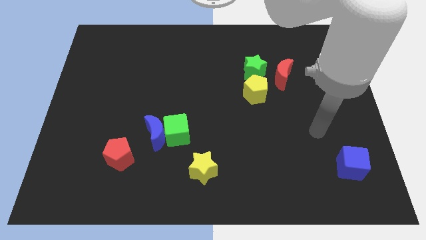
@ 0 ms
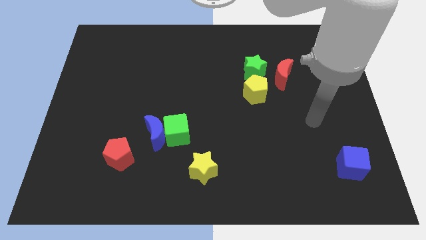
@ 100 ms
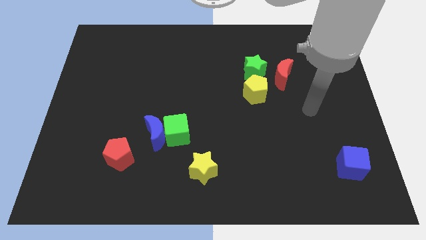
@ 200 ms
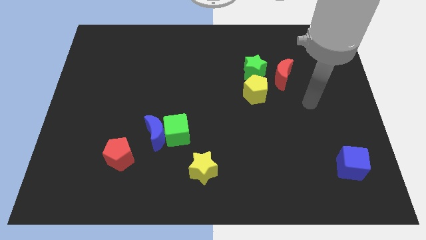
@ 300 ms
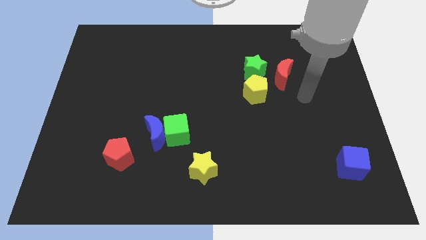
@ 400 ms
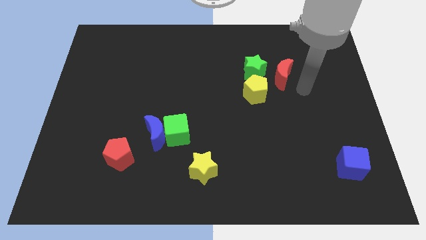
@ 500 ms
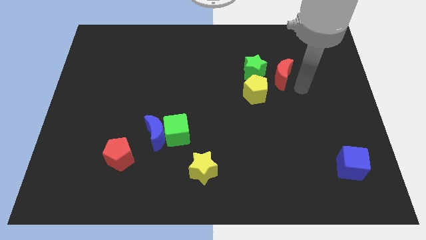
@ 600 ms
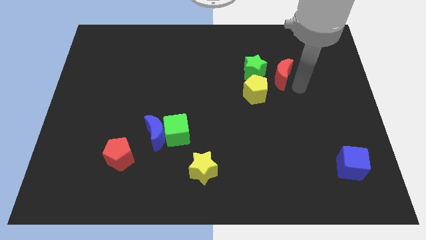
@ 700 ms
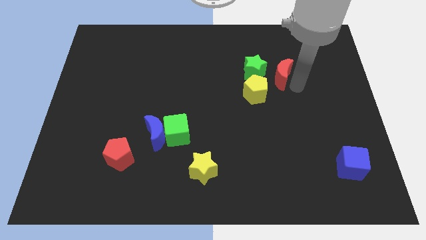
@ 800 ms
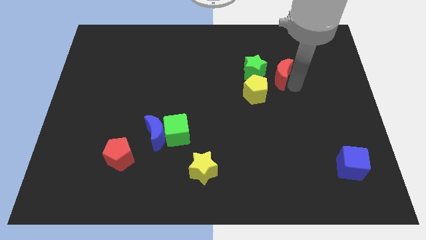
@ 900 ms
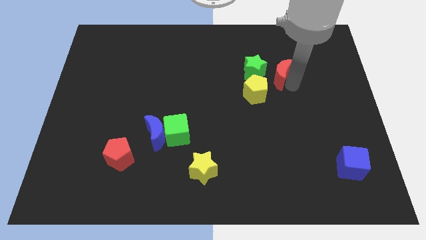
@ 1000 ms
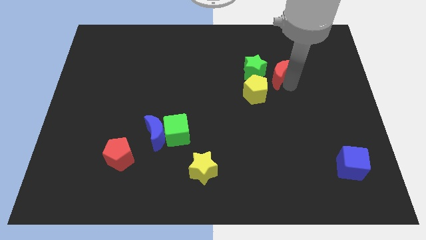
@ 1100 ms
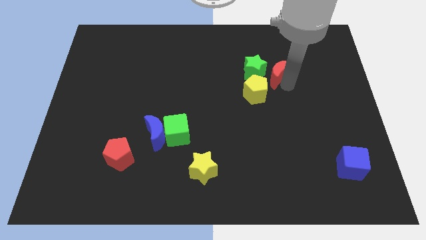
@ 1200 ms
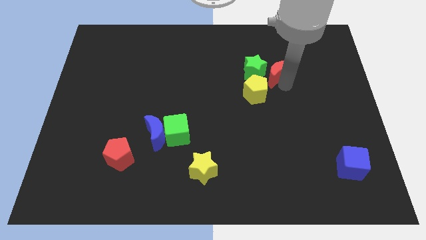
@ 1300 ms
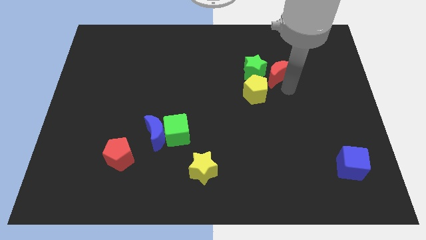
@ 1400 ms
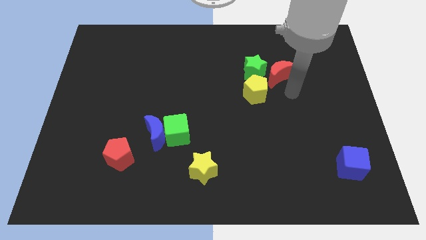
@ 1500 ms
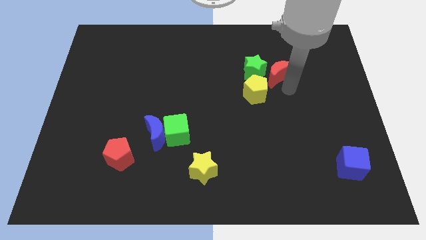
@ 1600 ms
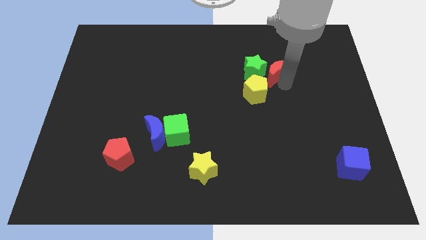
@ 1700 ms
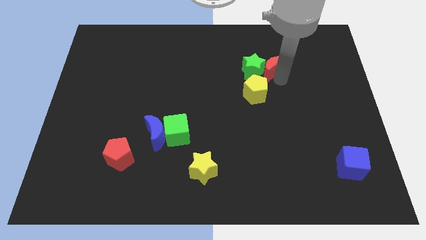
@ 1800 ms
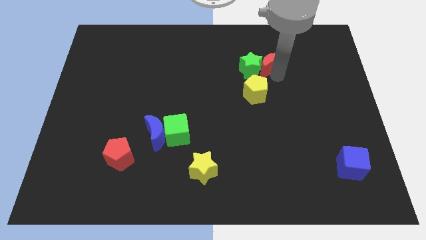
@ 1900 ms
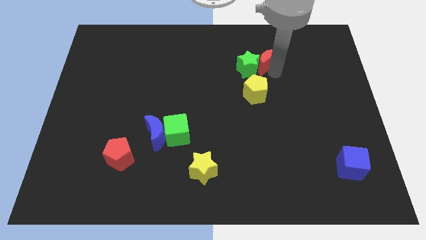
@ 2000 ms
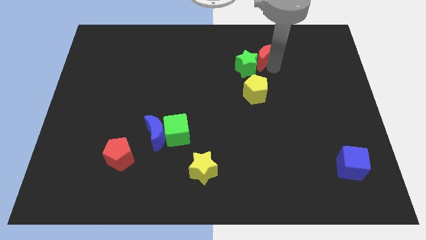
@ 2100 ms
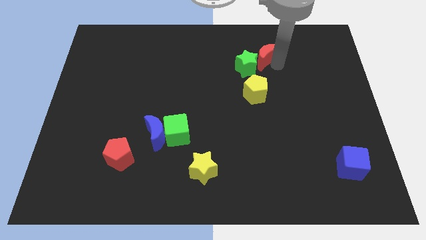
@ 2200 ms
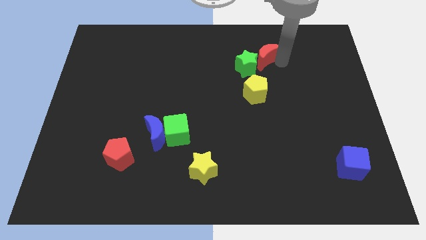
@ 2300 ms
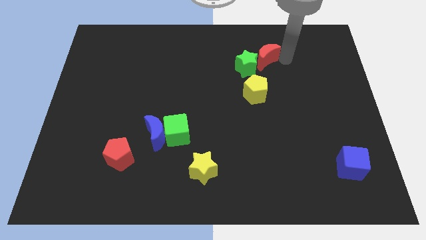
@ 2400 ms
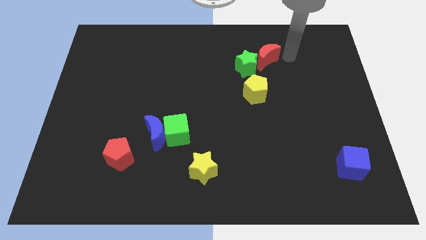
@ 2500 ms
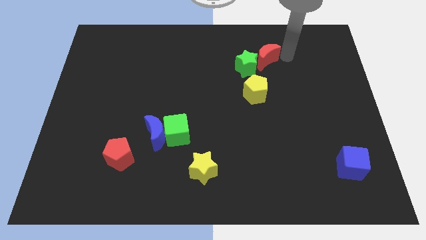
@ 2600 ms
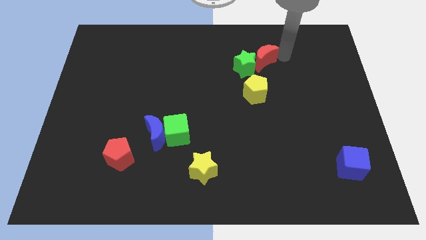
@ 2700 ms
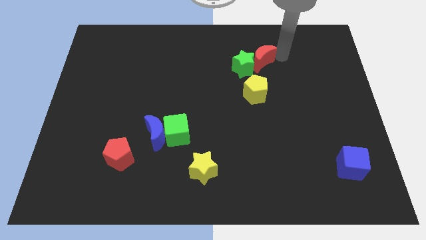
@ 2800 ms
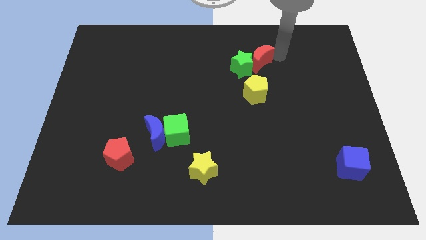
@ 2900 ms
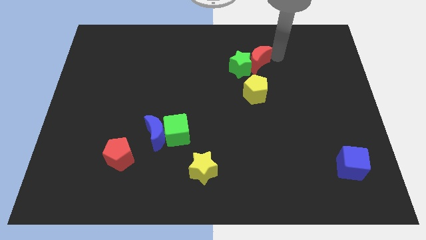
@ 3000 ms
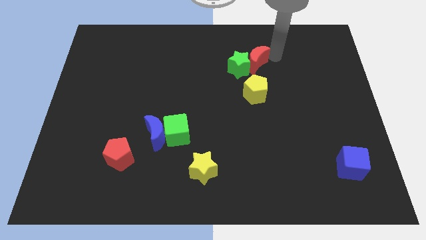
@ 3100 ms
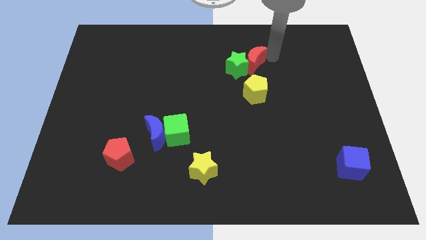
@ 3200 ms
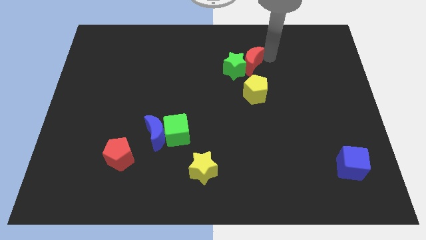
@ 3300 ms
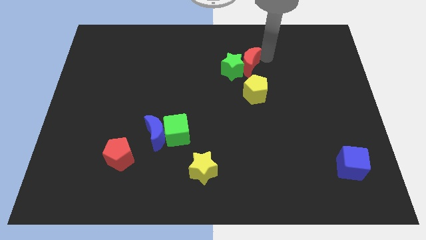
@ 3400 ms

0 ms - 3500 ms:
move the red moon a bit left

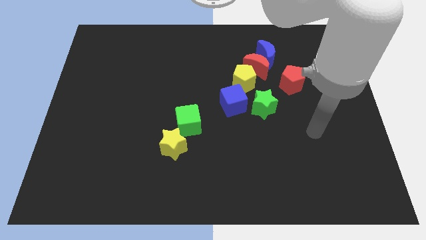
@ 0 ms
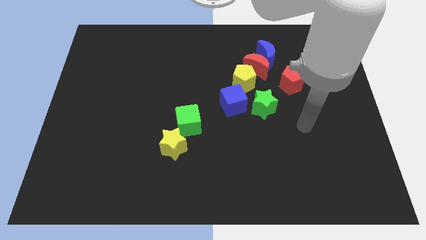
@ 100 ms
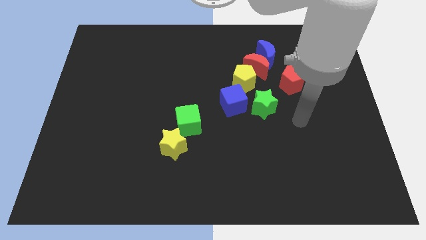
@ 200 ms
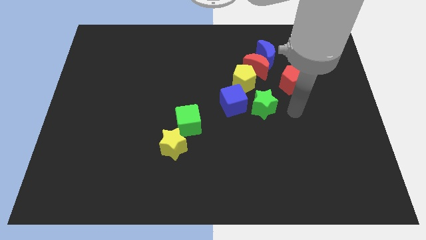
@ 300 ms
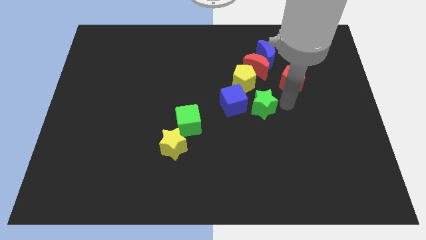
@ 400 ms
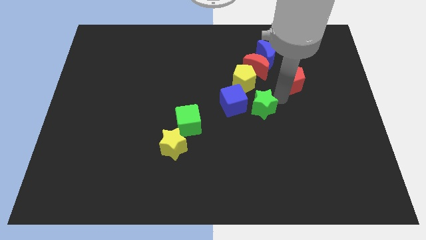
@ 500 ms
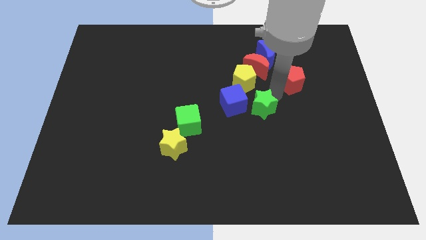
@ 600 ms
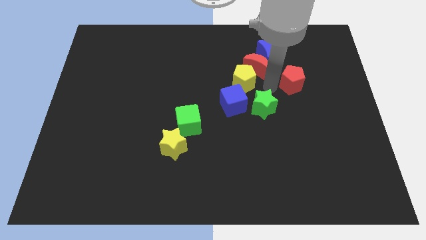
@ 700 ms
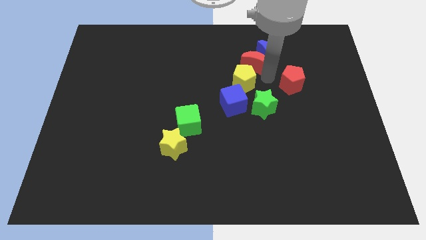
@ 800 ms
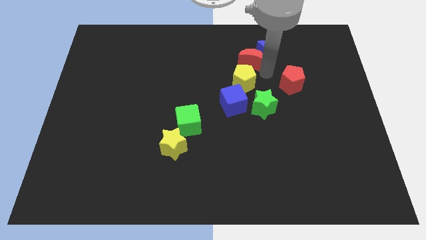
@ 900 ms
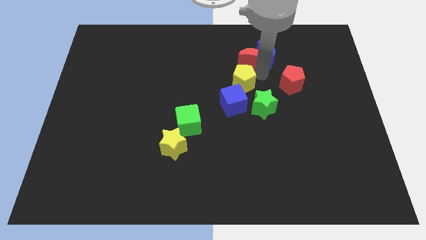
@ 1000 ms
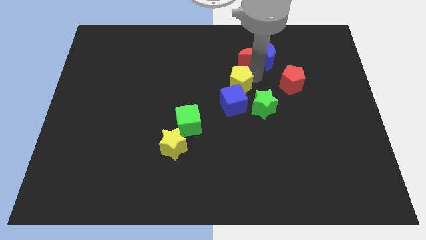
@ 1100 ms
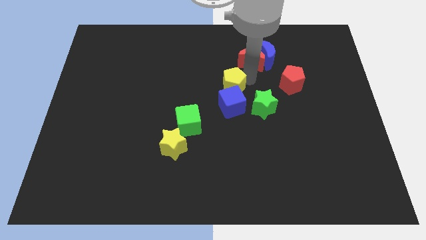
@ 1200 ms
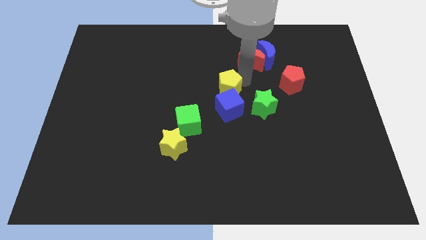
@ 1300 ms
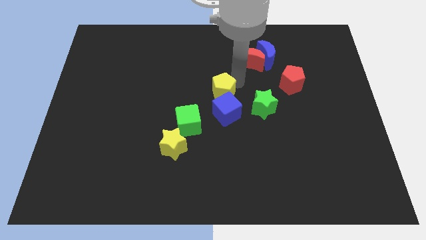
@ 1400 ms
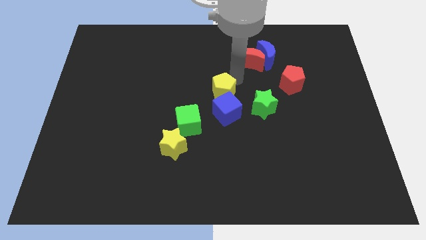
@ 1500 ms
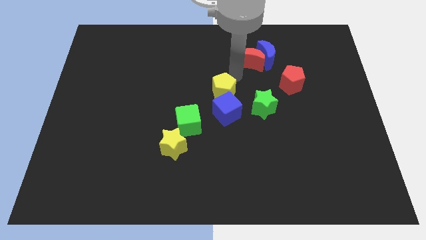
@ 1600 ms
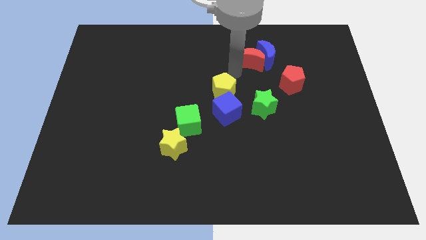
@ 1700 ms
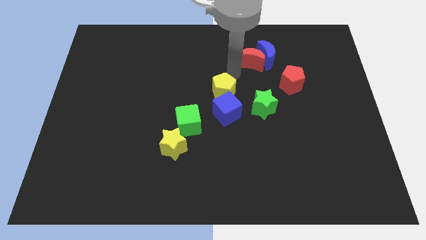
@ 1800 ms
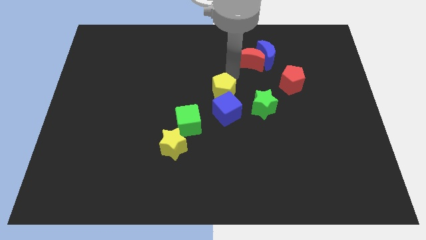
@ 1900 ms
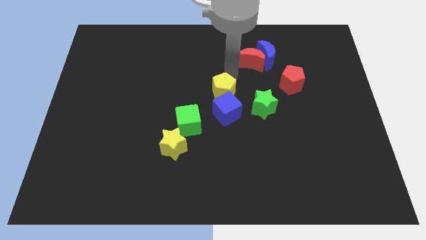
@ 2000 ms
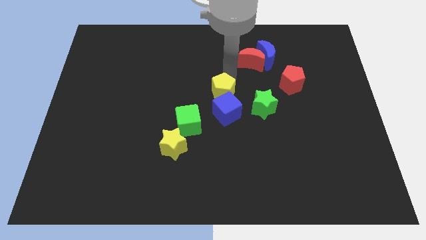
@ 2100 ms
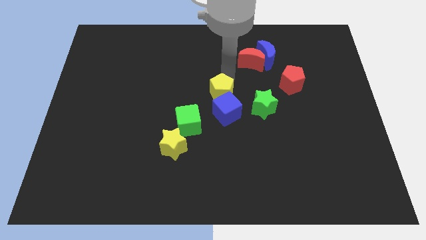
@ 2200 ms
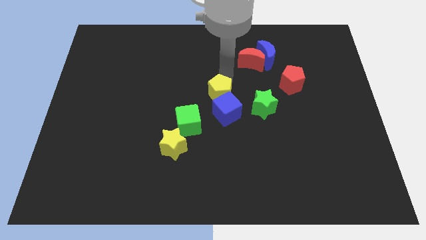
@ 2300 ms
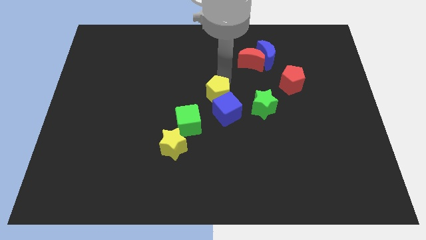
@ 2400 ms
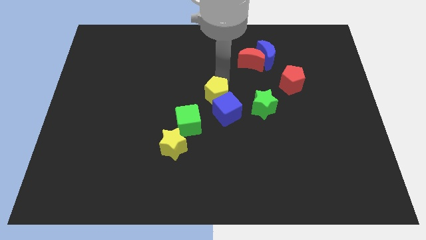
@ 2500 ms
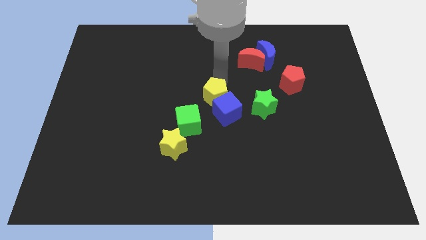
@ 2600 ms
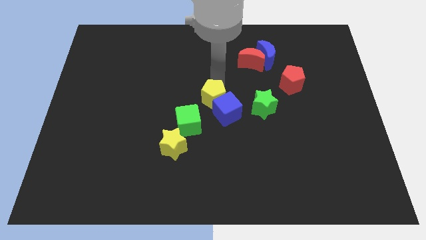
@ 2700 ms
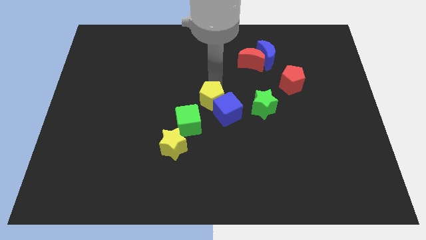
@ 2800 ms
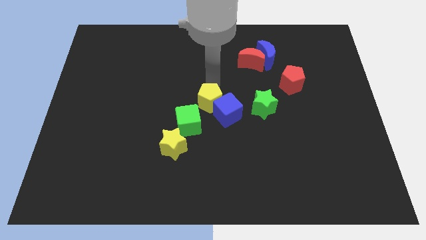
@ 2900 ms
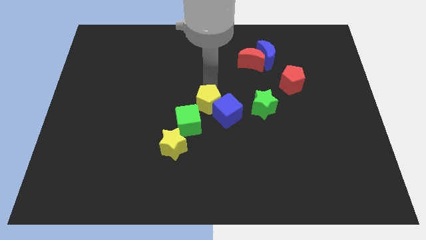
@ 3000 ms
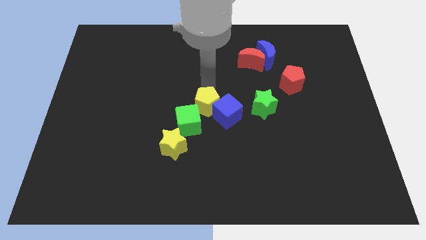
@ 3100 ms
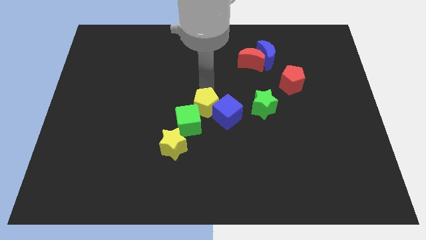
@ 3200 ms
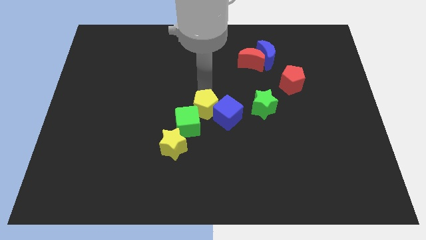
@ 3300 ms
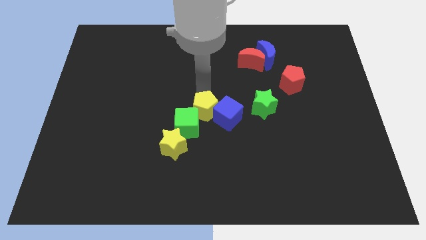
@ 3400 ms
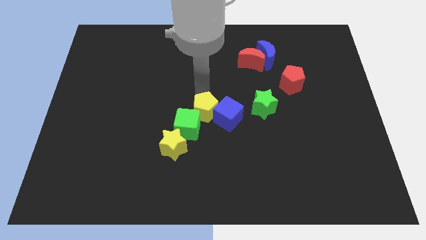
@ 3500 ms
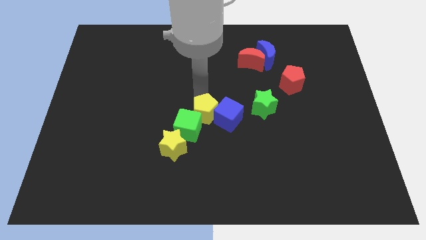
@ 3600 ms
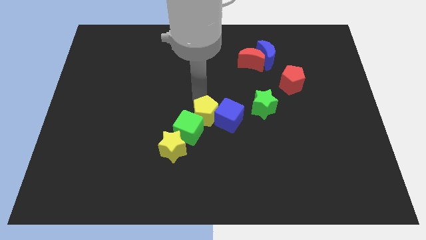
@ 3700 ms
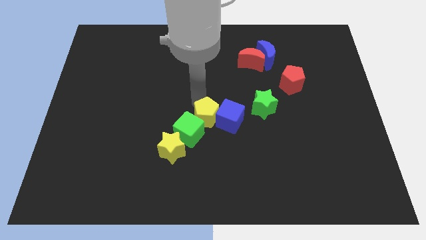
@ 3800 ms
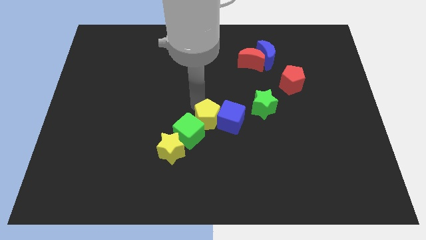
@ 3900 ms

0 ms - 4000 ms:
slightly move the yellow pentagon down

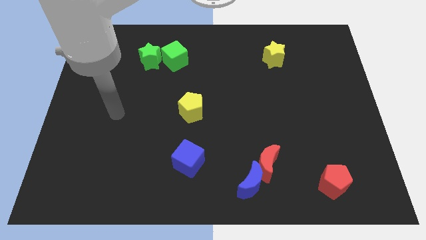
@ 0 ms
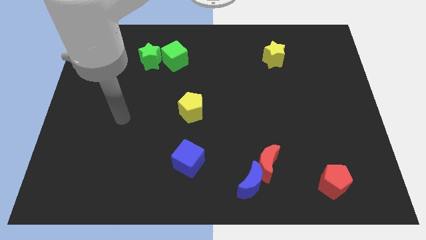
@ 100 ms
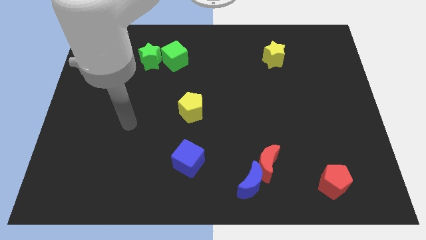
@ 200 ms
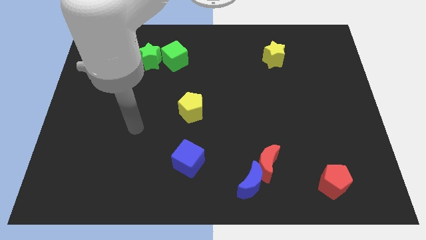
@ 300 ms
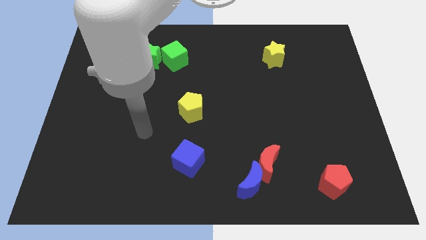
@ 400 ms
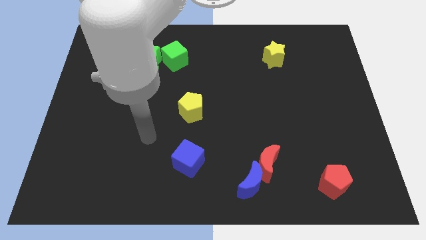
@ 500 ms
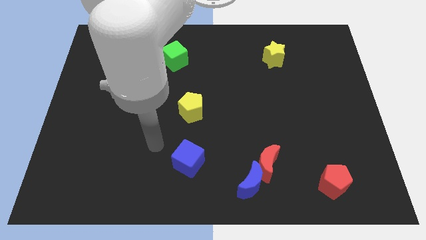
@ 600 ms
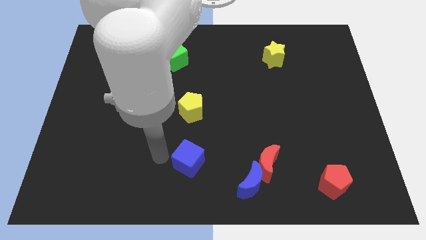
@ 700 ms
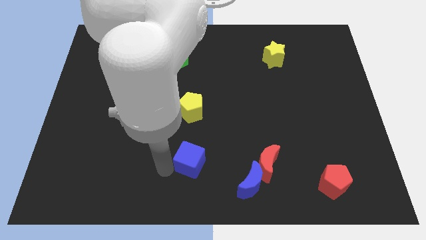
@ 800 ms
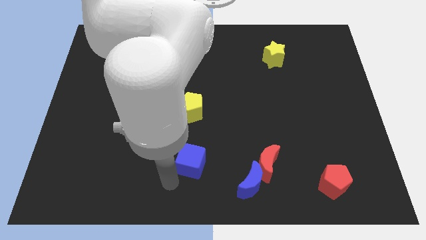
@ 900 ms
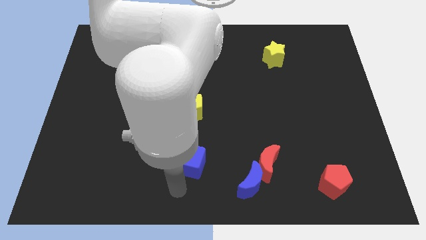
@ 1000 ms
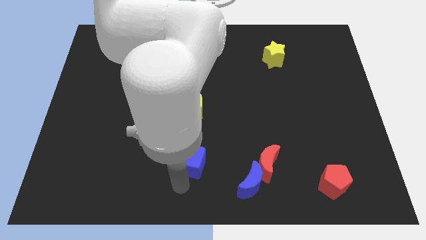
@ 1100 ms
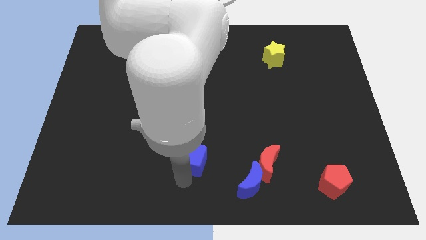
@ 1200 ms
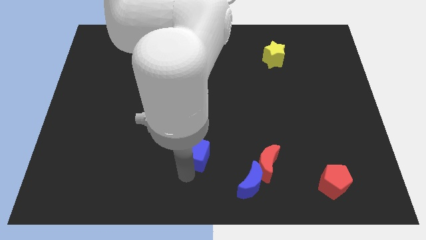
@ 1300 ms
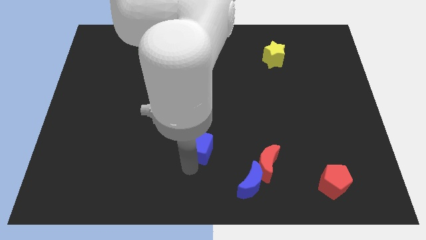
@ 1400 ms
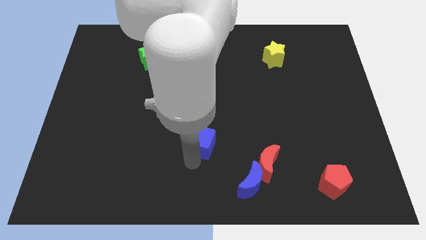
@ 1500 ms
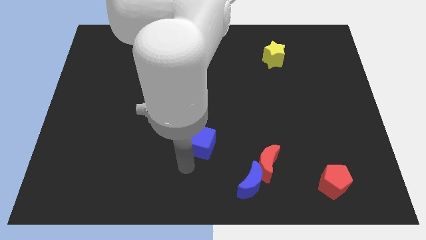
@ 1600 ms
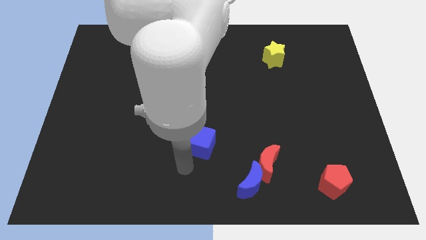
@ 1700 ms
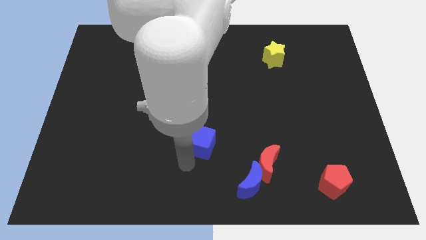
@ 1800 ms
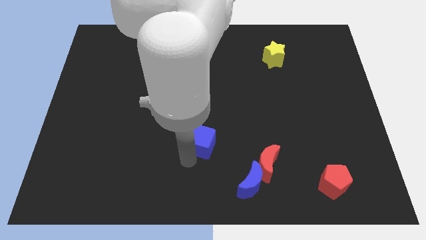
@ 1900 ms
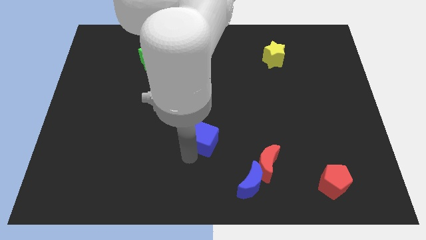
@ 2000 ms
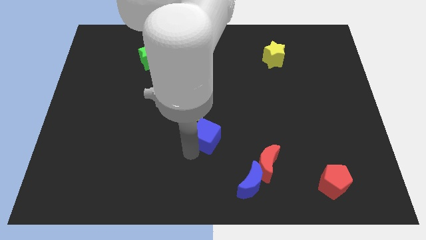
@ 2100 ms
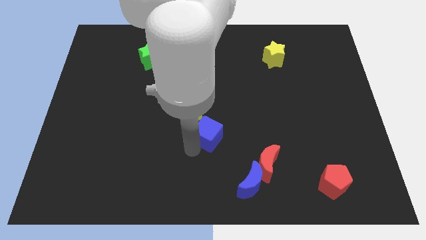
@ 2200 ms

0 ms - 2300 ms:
push the blue cube upwards and to the right diagonally a little bit
